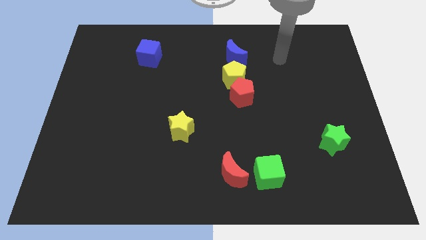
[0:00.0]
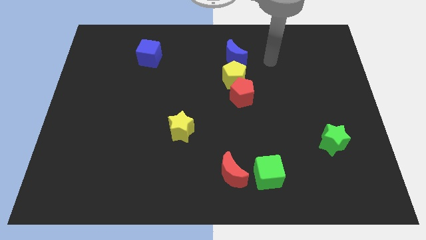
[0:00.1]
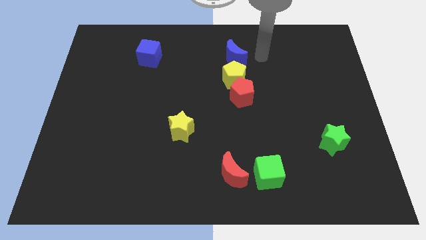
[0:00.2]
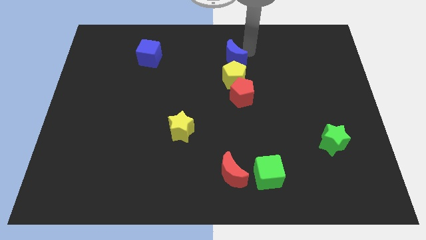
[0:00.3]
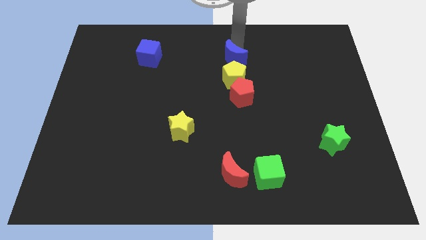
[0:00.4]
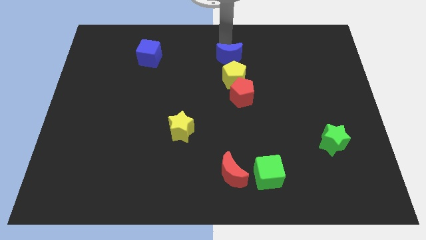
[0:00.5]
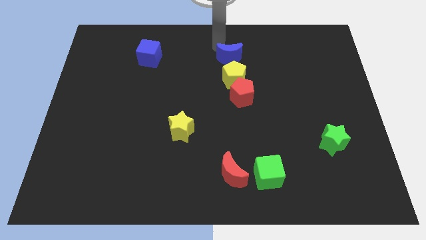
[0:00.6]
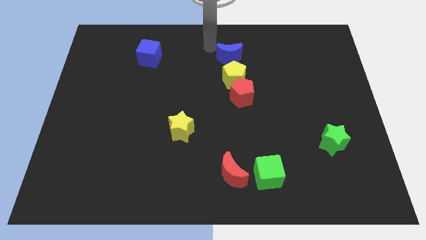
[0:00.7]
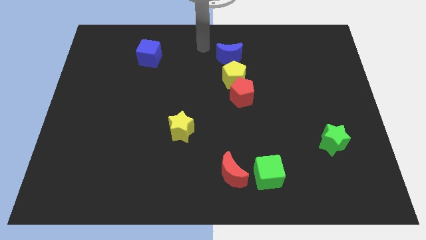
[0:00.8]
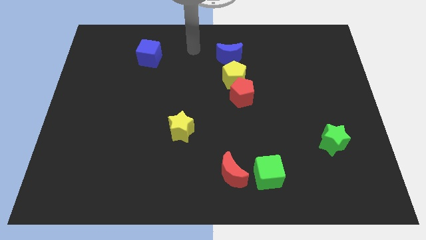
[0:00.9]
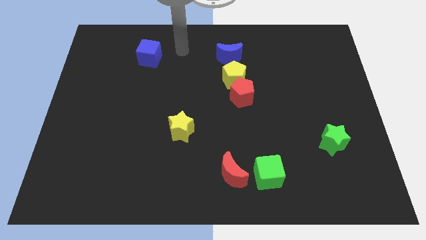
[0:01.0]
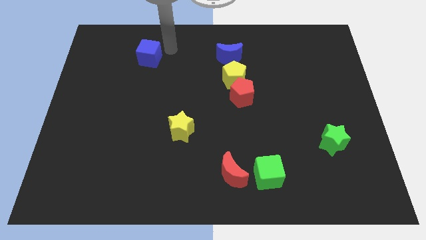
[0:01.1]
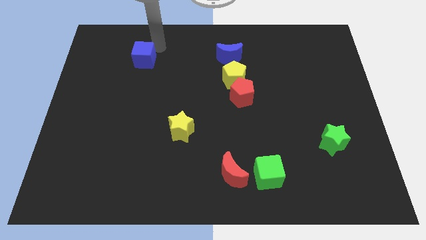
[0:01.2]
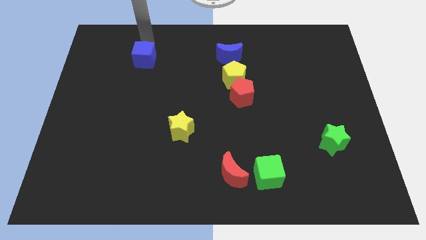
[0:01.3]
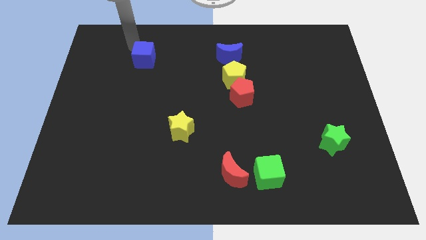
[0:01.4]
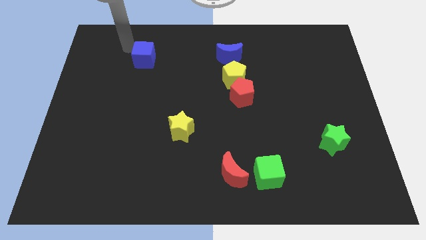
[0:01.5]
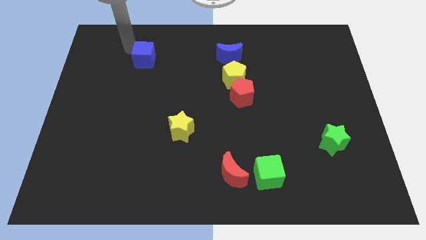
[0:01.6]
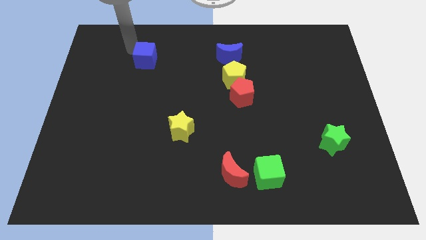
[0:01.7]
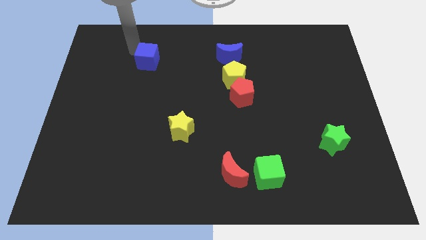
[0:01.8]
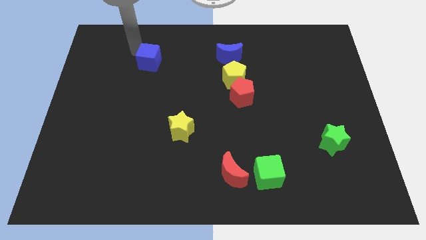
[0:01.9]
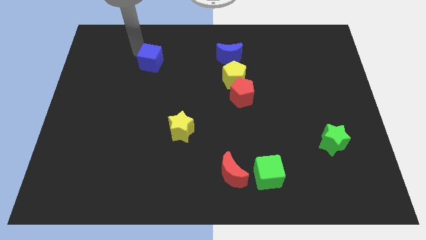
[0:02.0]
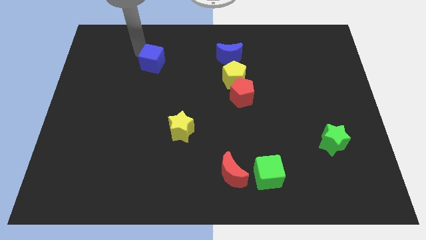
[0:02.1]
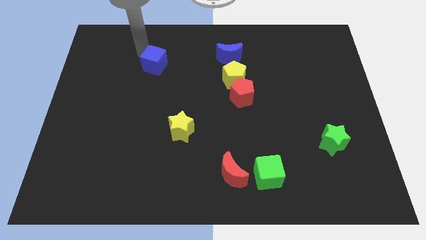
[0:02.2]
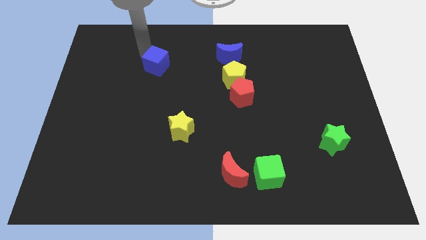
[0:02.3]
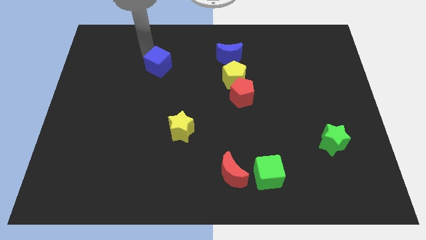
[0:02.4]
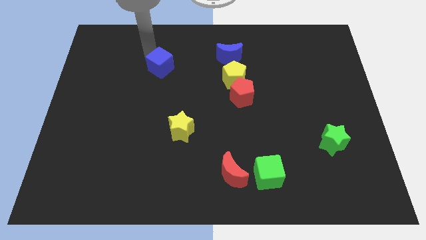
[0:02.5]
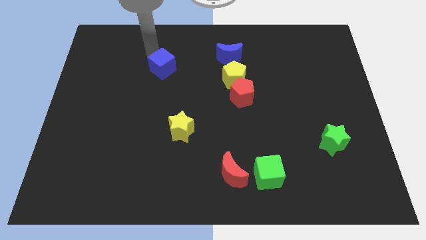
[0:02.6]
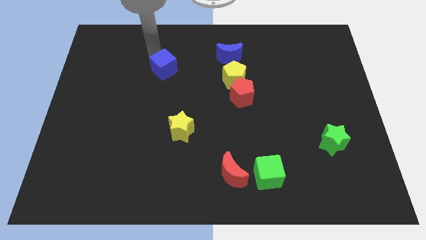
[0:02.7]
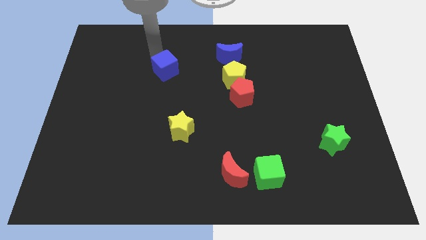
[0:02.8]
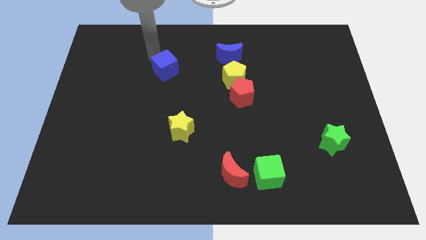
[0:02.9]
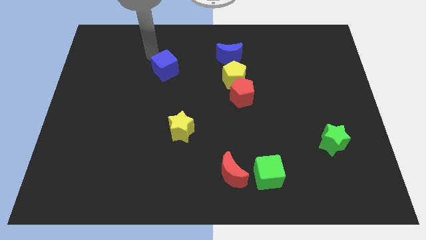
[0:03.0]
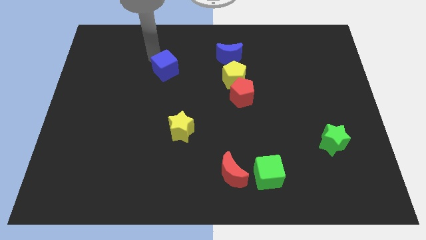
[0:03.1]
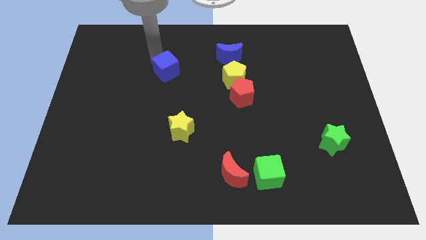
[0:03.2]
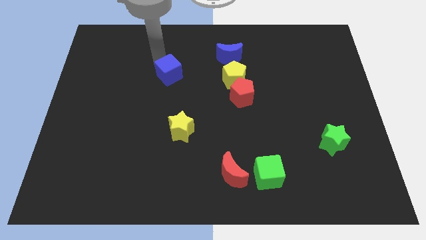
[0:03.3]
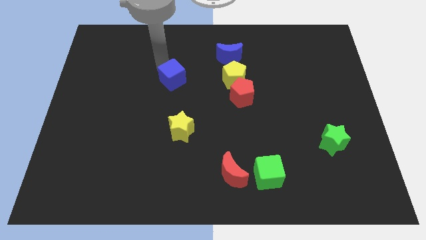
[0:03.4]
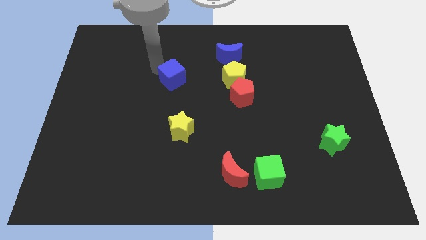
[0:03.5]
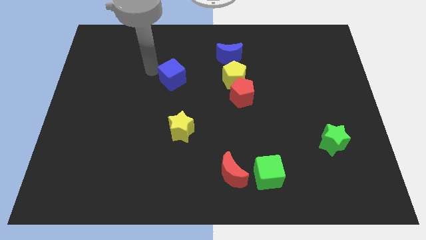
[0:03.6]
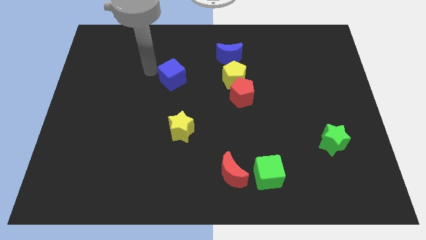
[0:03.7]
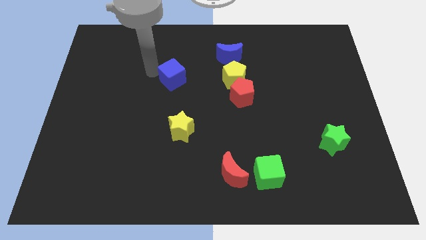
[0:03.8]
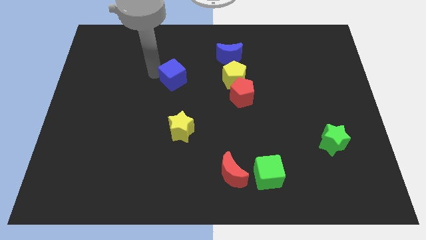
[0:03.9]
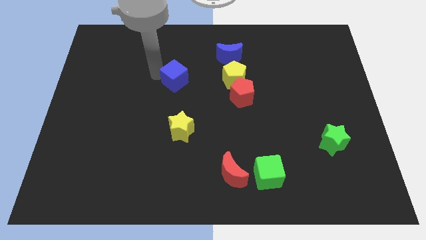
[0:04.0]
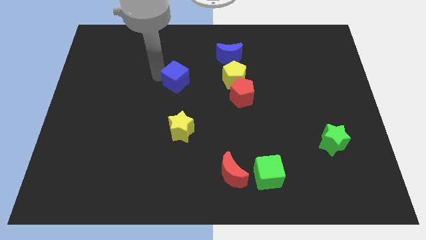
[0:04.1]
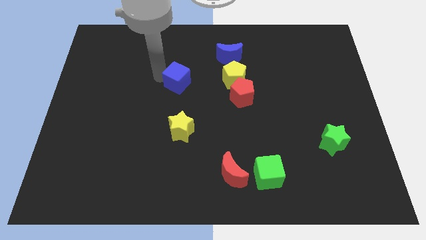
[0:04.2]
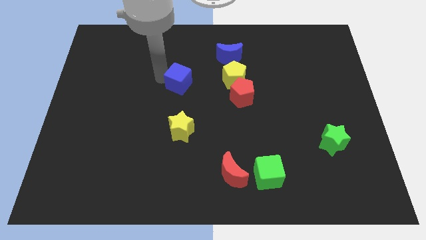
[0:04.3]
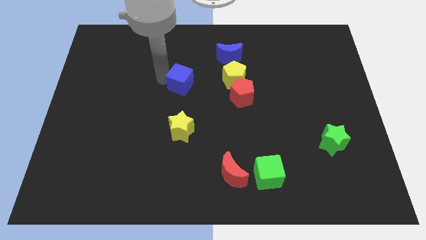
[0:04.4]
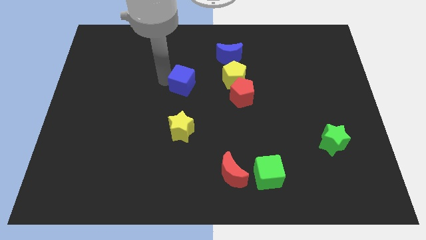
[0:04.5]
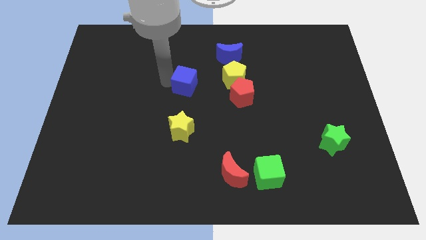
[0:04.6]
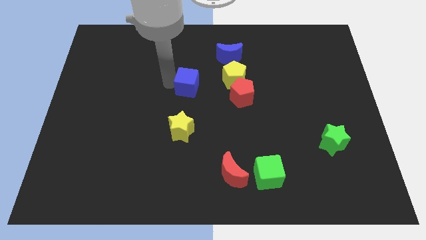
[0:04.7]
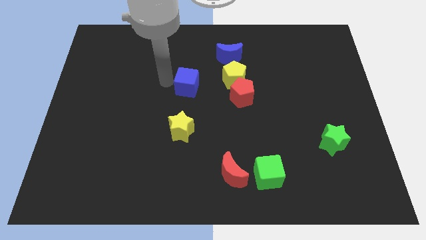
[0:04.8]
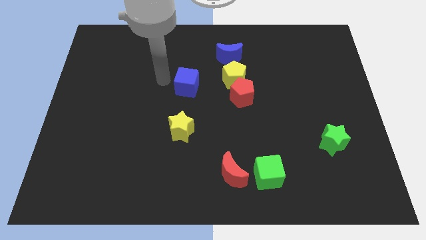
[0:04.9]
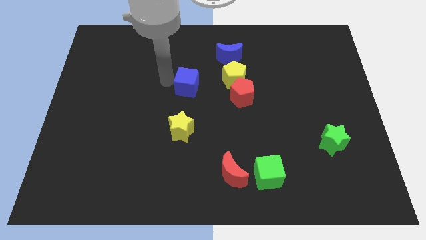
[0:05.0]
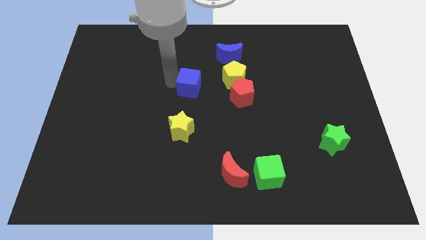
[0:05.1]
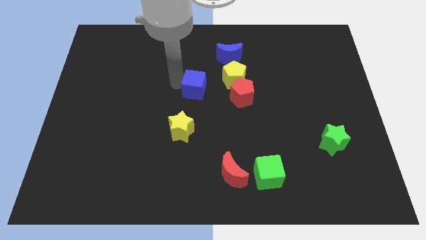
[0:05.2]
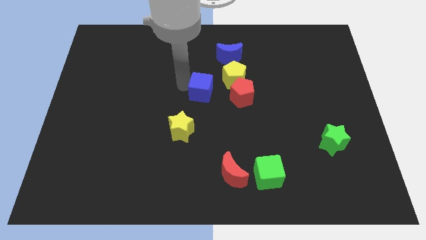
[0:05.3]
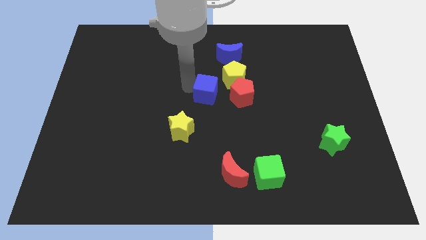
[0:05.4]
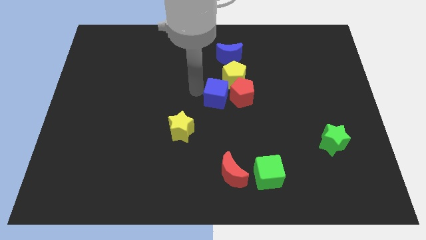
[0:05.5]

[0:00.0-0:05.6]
slide the blue cube close to the red pentagon
